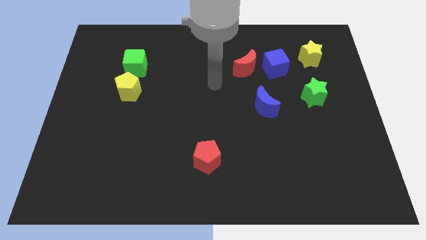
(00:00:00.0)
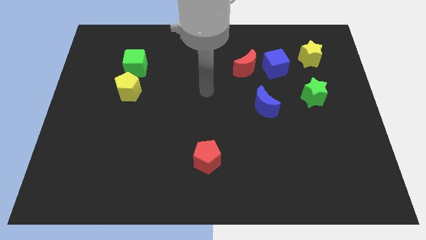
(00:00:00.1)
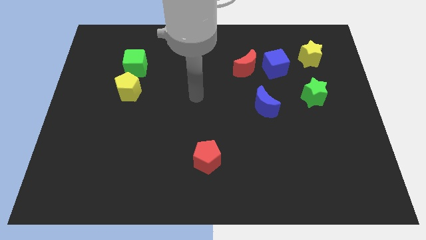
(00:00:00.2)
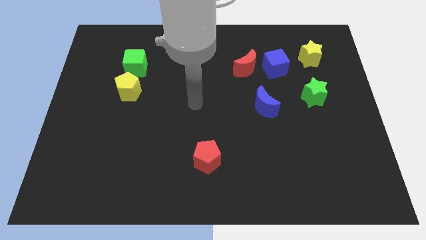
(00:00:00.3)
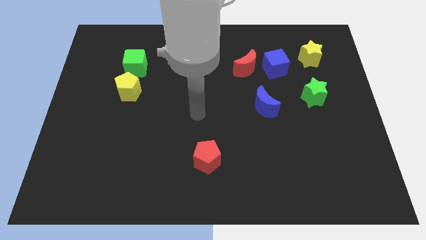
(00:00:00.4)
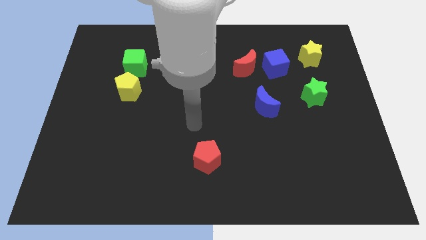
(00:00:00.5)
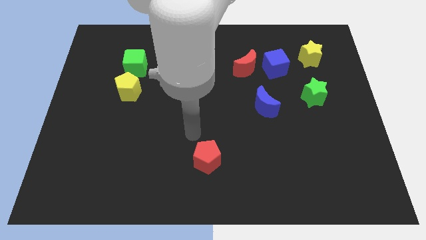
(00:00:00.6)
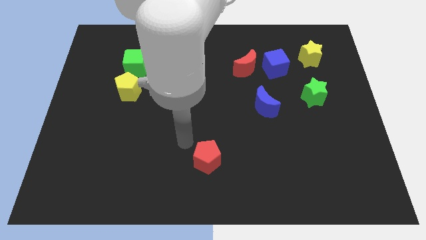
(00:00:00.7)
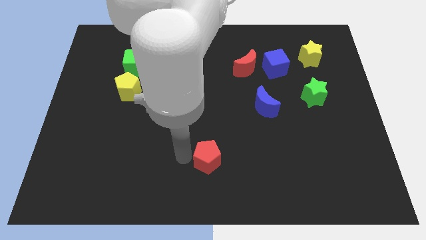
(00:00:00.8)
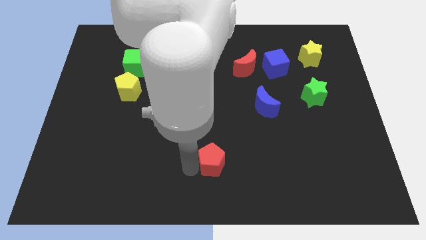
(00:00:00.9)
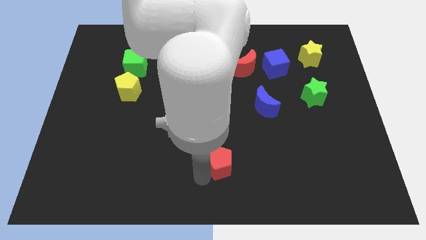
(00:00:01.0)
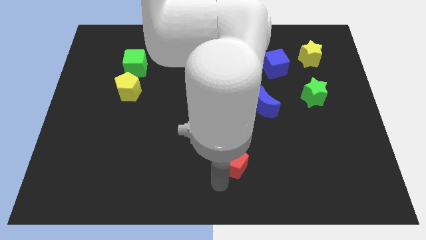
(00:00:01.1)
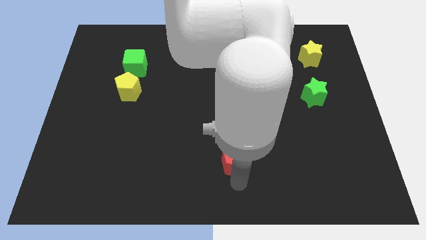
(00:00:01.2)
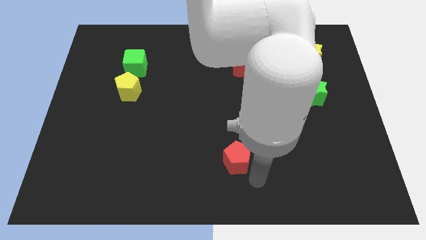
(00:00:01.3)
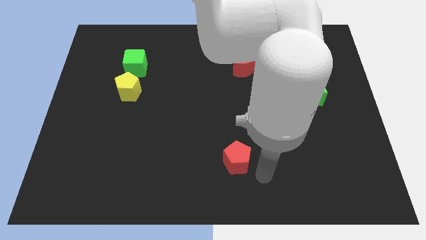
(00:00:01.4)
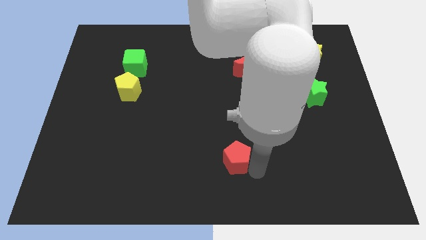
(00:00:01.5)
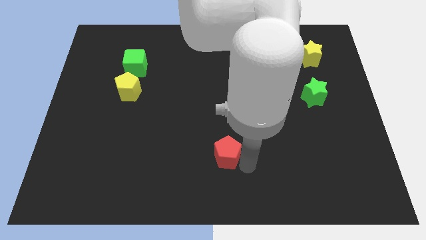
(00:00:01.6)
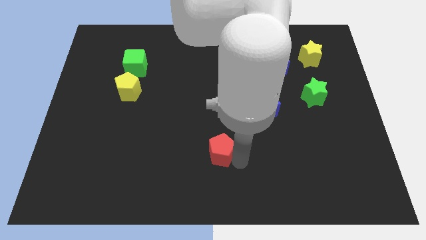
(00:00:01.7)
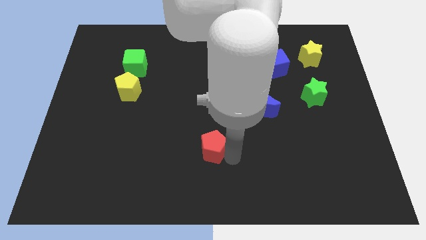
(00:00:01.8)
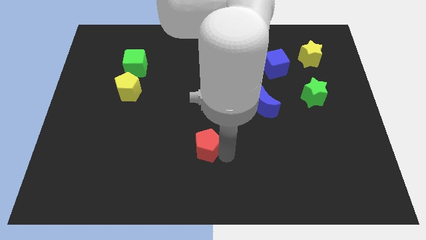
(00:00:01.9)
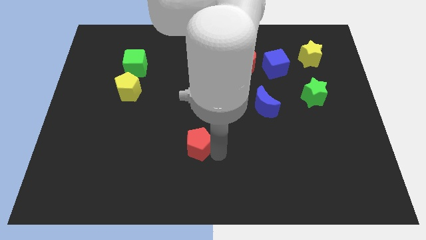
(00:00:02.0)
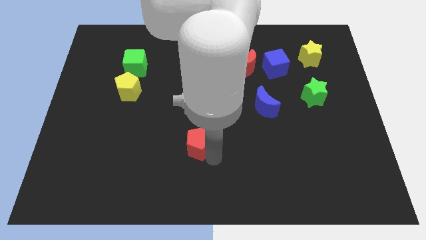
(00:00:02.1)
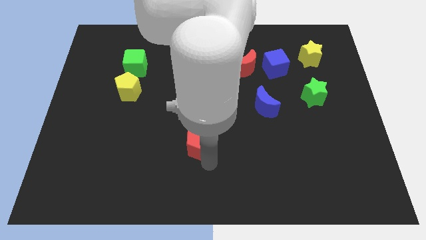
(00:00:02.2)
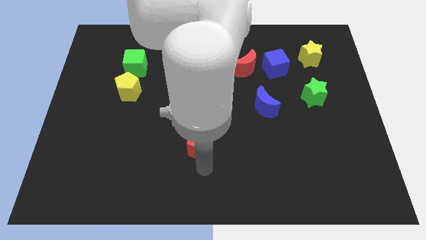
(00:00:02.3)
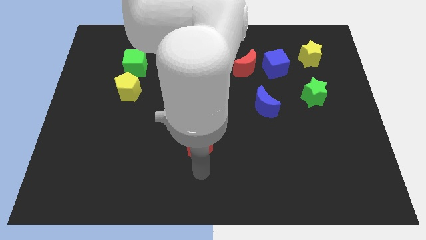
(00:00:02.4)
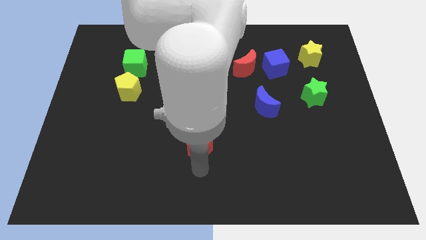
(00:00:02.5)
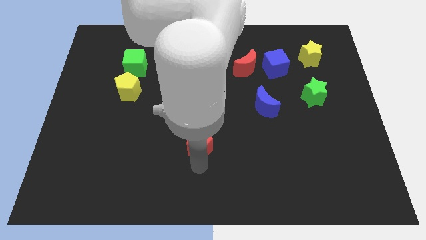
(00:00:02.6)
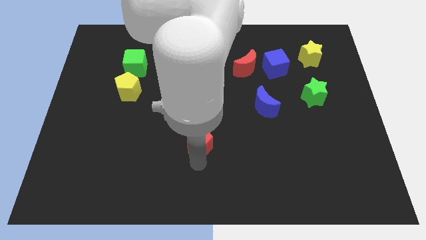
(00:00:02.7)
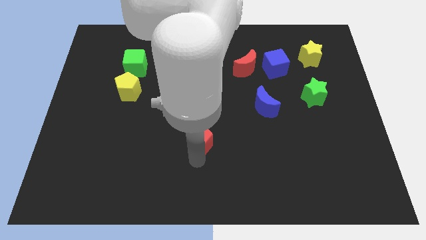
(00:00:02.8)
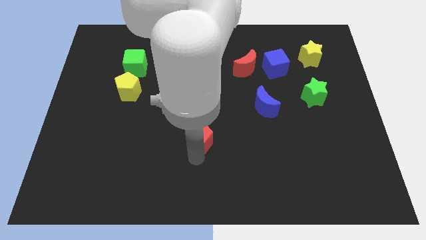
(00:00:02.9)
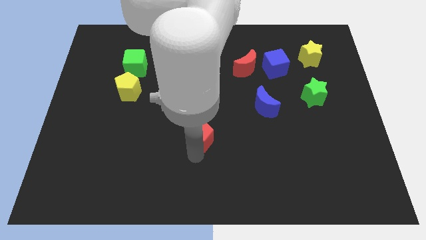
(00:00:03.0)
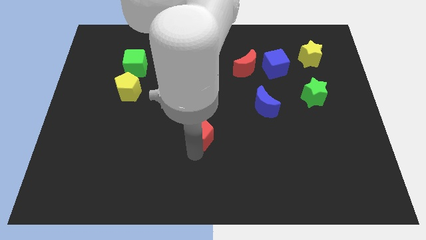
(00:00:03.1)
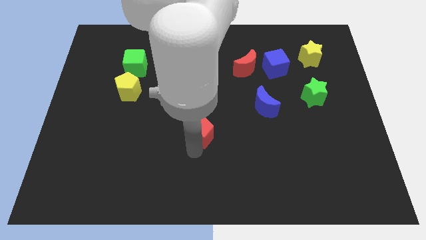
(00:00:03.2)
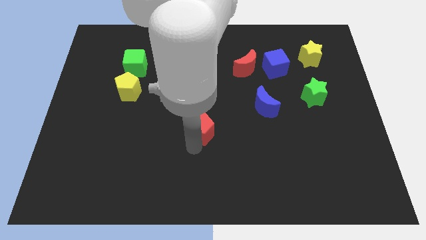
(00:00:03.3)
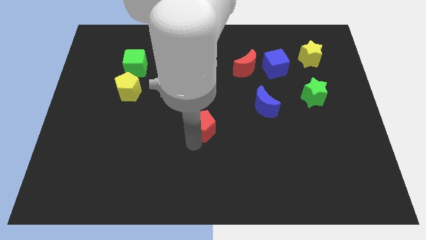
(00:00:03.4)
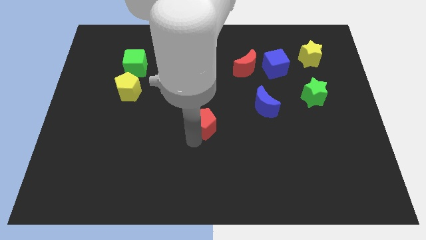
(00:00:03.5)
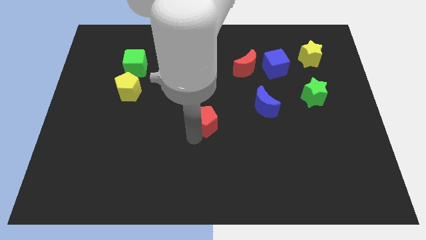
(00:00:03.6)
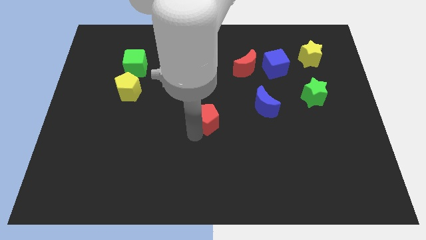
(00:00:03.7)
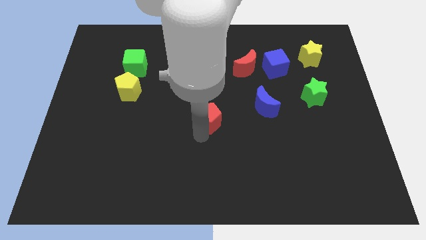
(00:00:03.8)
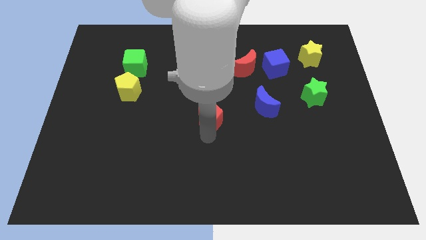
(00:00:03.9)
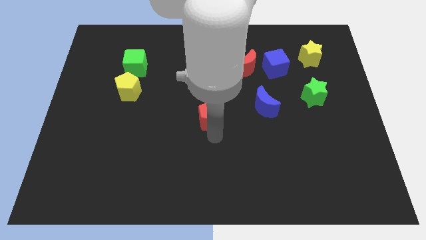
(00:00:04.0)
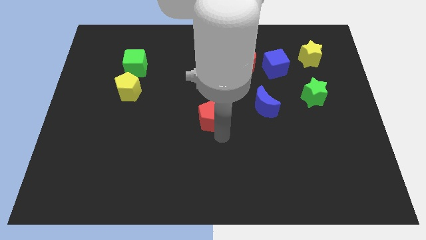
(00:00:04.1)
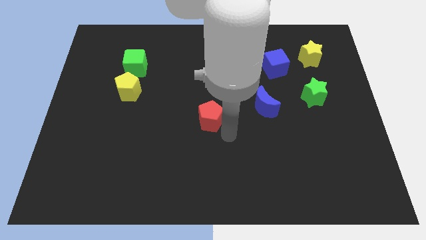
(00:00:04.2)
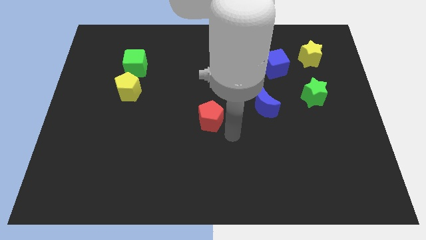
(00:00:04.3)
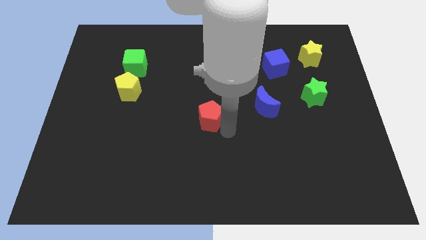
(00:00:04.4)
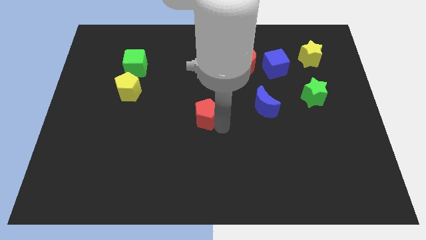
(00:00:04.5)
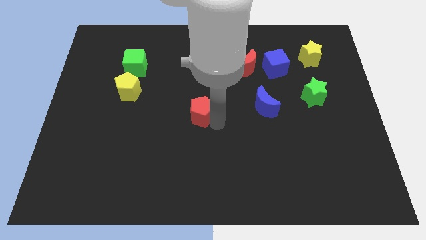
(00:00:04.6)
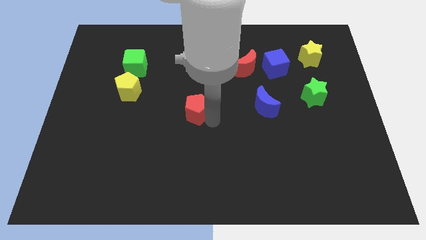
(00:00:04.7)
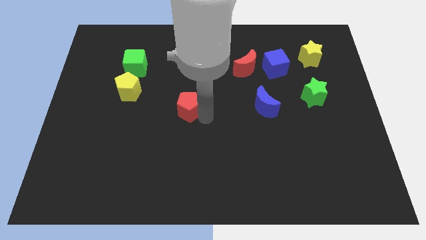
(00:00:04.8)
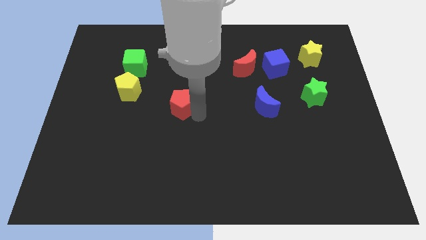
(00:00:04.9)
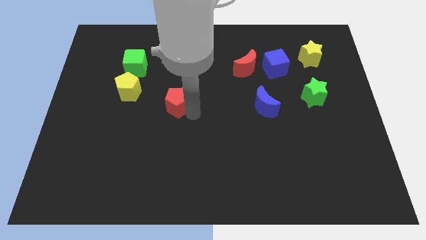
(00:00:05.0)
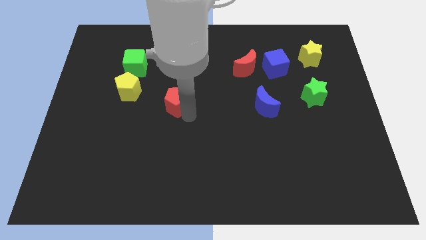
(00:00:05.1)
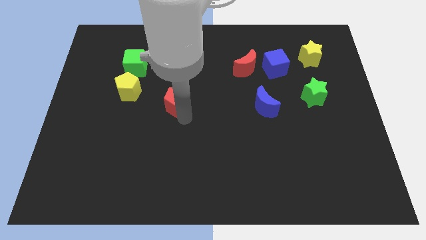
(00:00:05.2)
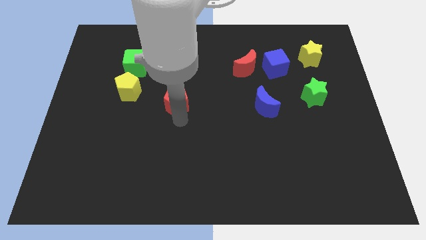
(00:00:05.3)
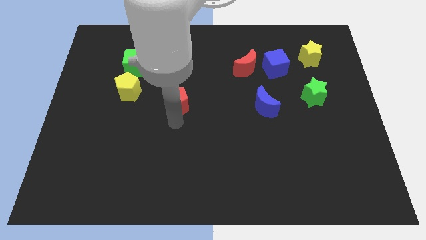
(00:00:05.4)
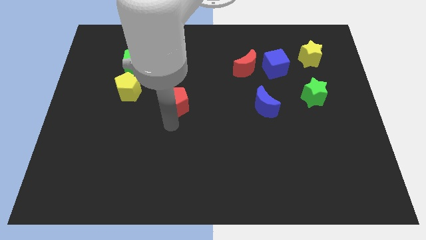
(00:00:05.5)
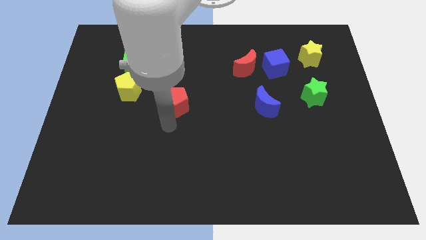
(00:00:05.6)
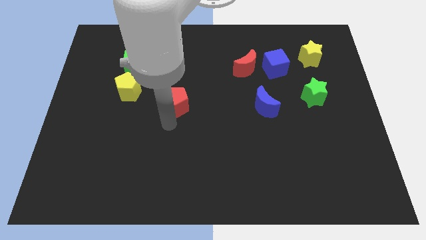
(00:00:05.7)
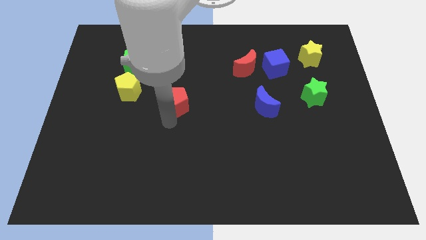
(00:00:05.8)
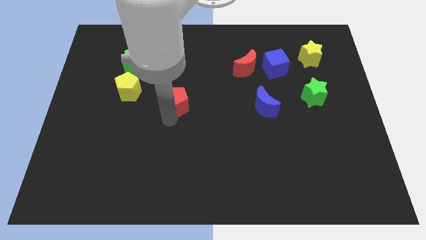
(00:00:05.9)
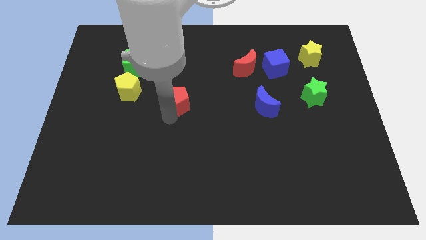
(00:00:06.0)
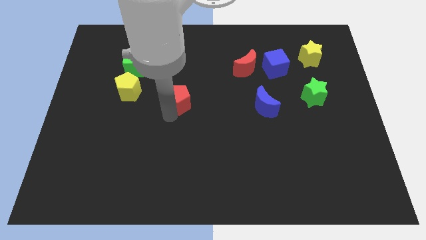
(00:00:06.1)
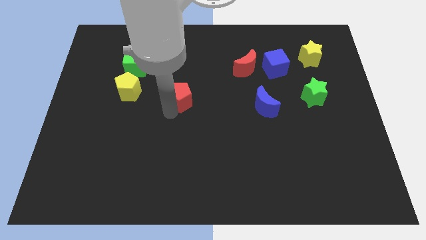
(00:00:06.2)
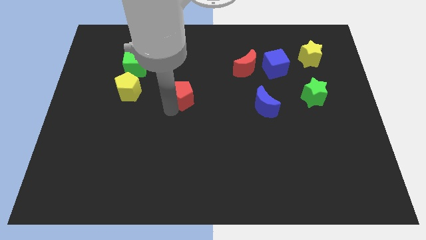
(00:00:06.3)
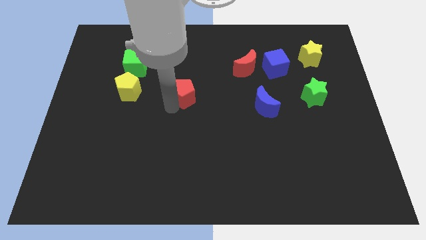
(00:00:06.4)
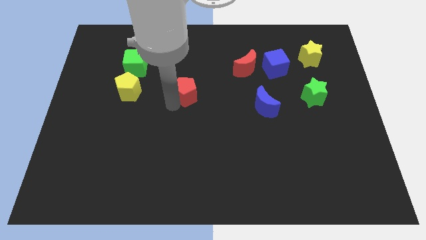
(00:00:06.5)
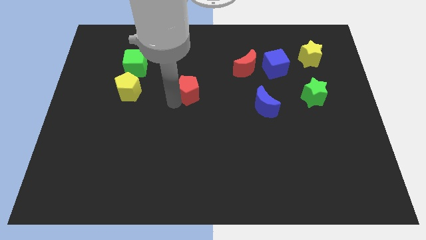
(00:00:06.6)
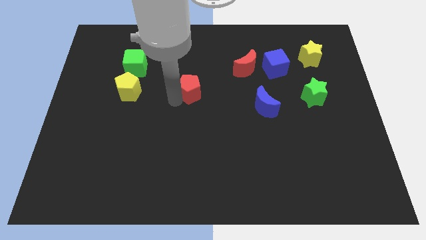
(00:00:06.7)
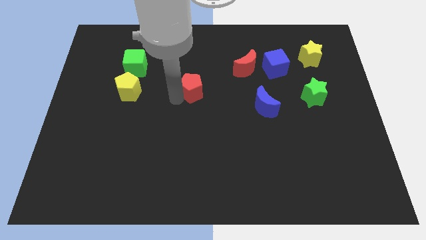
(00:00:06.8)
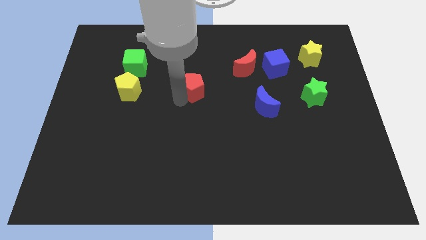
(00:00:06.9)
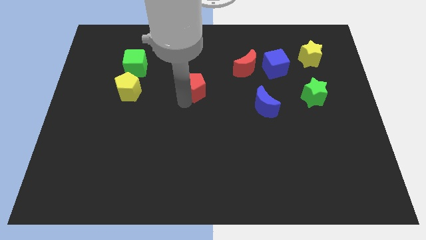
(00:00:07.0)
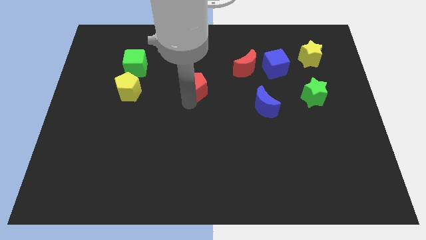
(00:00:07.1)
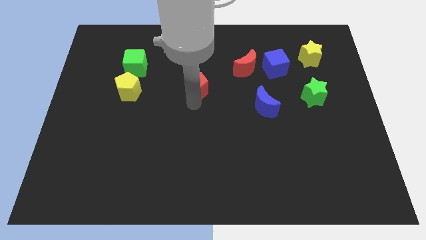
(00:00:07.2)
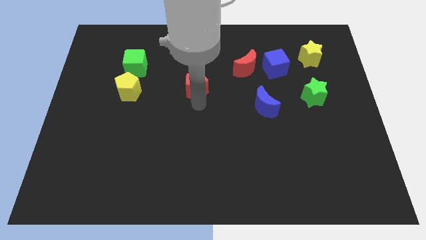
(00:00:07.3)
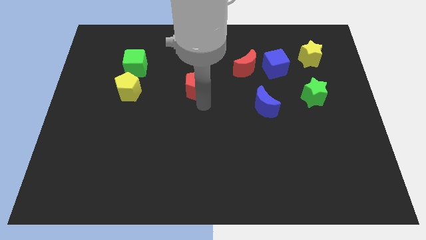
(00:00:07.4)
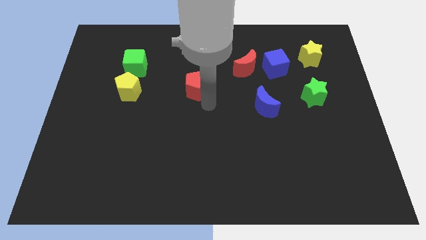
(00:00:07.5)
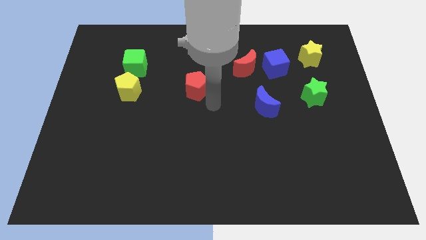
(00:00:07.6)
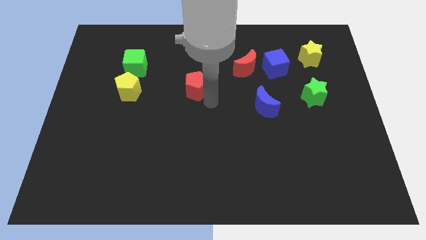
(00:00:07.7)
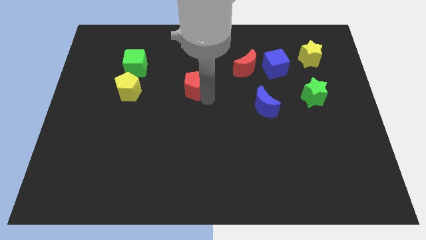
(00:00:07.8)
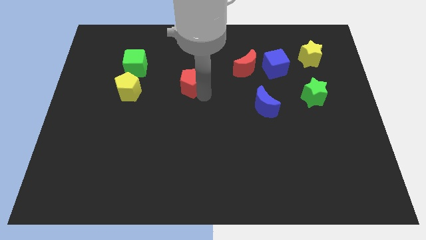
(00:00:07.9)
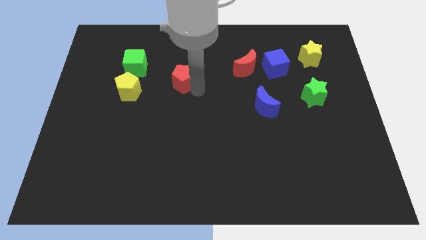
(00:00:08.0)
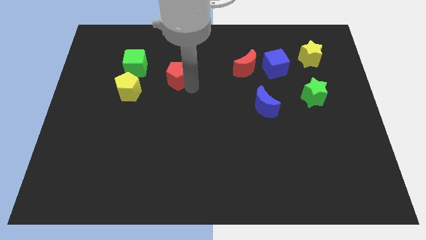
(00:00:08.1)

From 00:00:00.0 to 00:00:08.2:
push the red pentagon just right of the green cube
